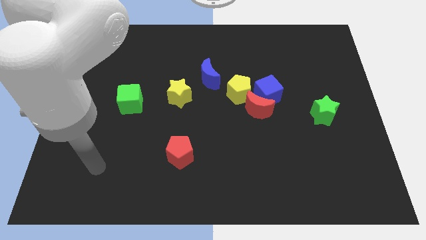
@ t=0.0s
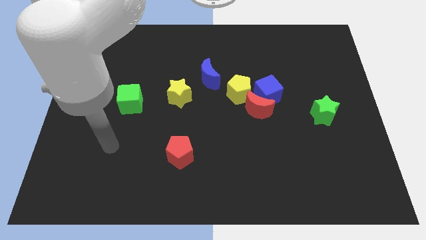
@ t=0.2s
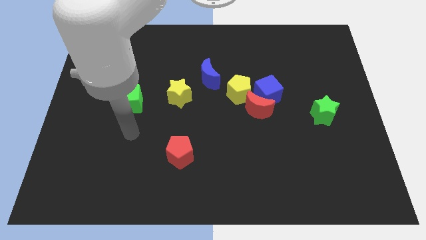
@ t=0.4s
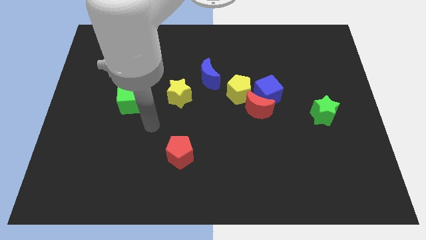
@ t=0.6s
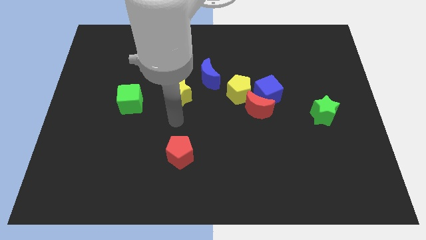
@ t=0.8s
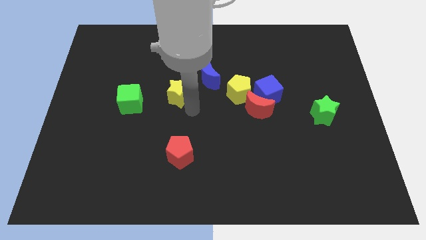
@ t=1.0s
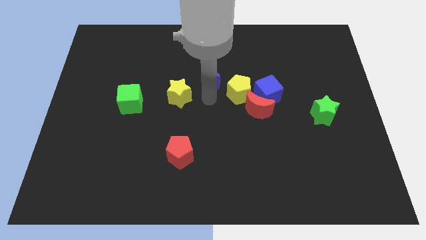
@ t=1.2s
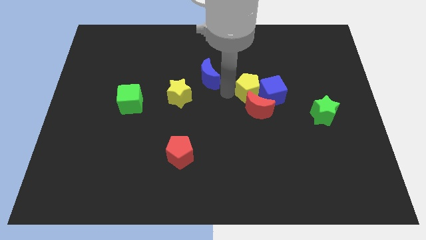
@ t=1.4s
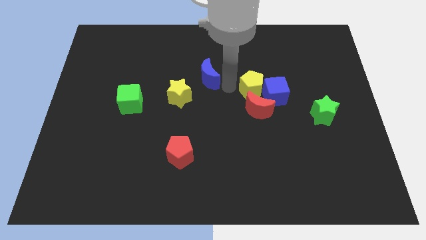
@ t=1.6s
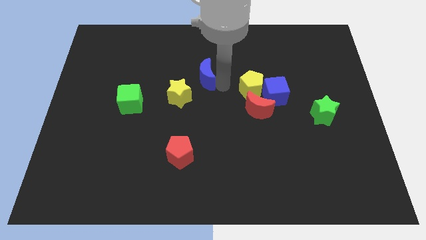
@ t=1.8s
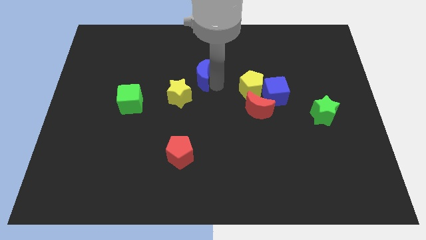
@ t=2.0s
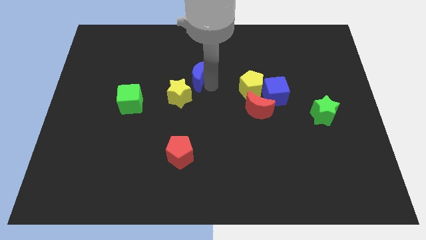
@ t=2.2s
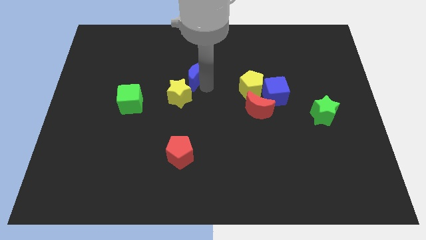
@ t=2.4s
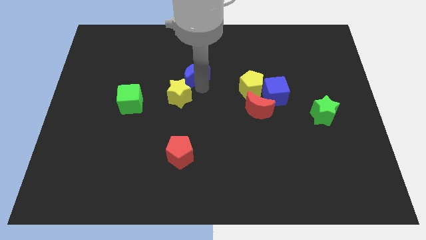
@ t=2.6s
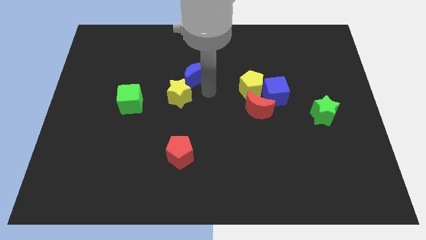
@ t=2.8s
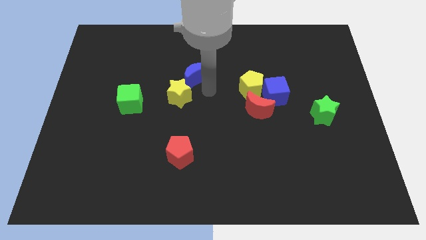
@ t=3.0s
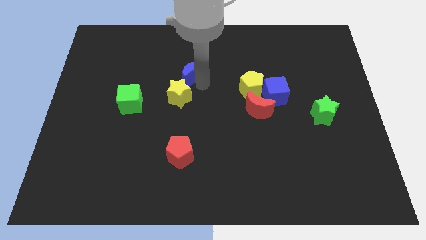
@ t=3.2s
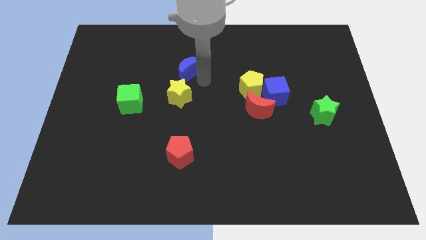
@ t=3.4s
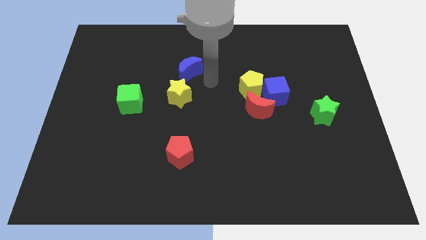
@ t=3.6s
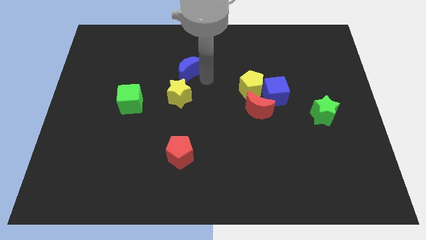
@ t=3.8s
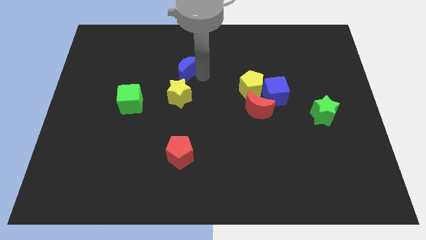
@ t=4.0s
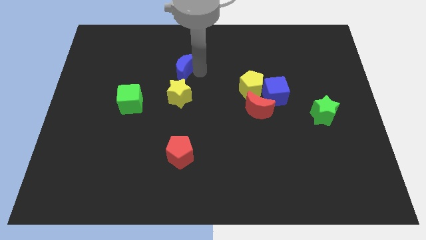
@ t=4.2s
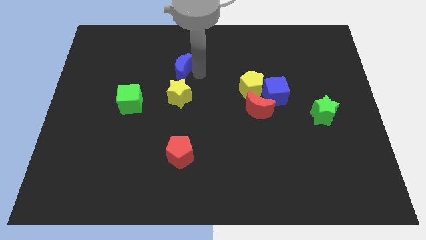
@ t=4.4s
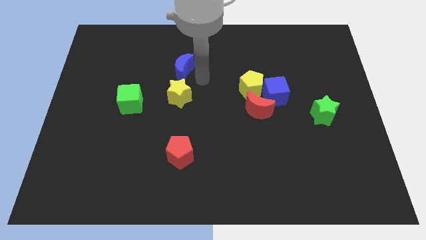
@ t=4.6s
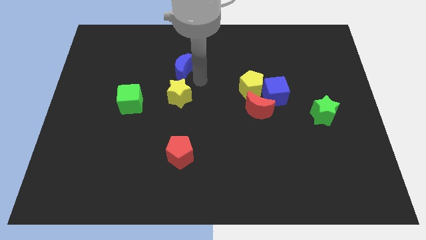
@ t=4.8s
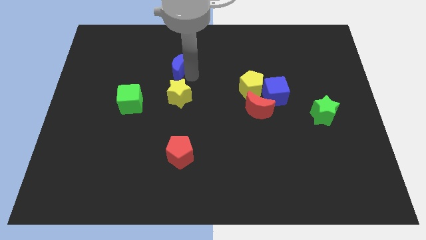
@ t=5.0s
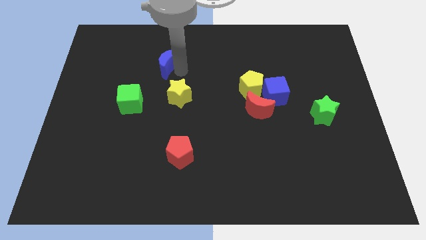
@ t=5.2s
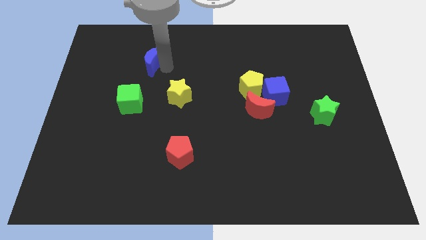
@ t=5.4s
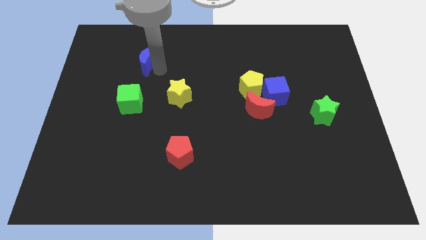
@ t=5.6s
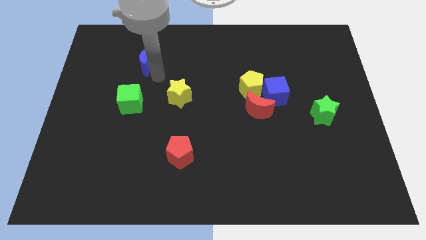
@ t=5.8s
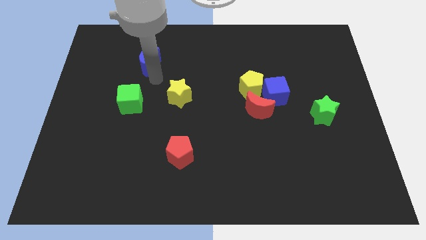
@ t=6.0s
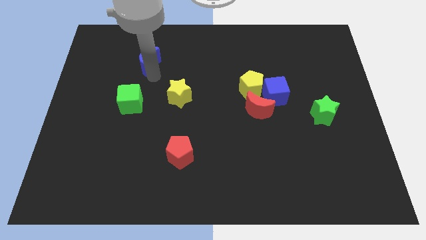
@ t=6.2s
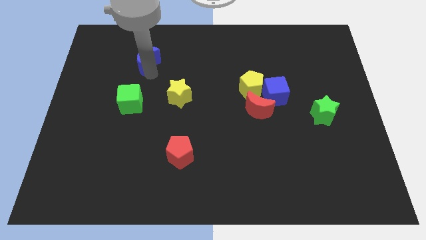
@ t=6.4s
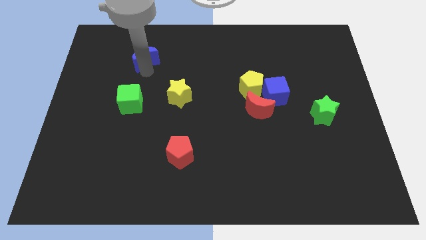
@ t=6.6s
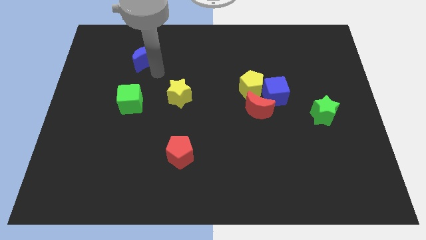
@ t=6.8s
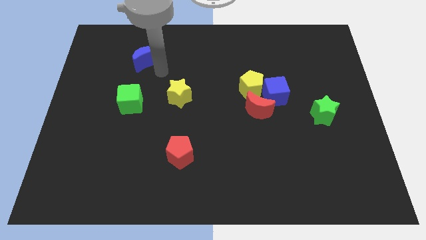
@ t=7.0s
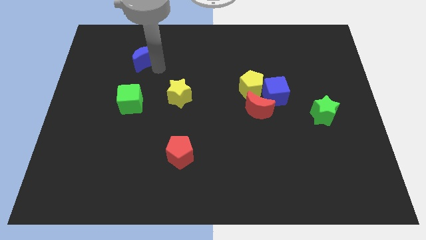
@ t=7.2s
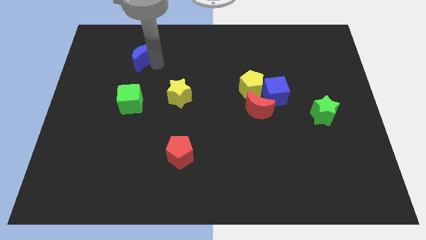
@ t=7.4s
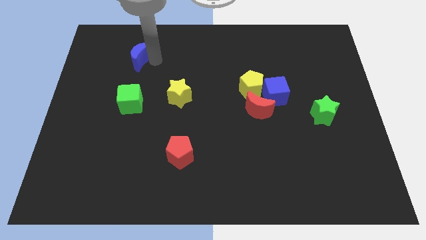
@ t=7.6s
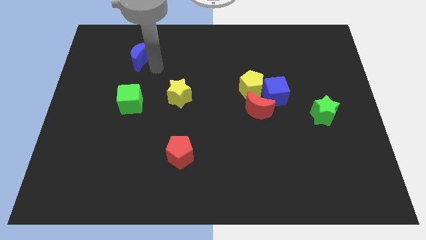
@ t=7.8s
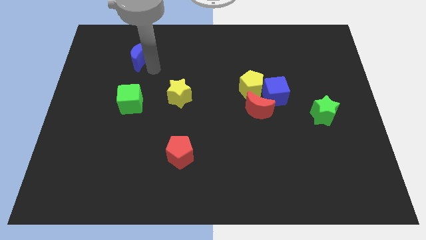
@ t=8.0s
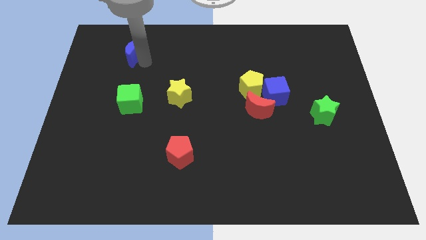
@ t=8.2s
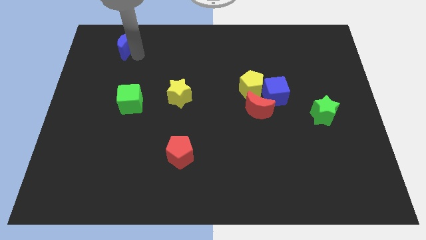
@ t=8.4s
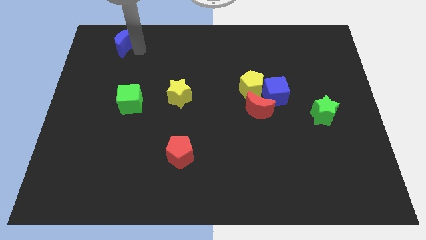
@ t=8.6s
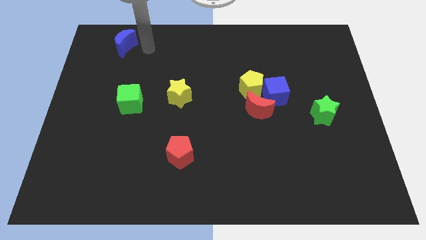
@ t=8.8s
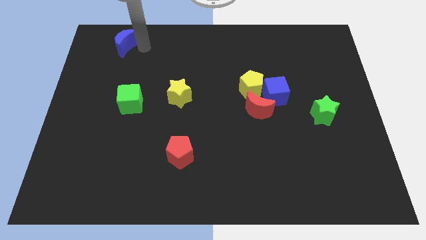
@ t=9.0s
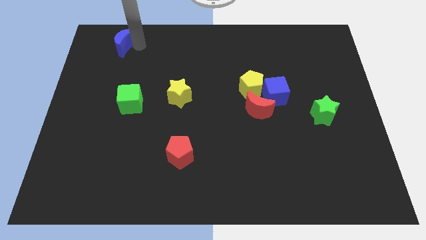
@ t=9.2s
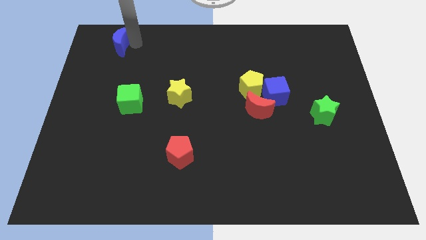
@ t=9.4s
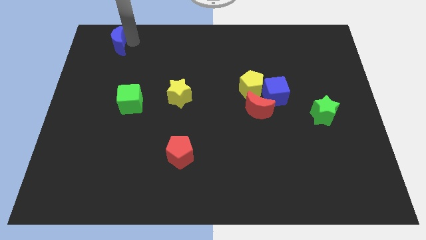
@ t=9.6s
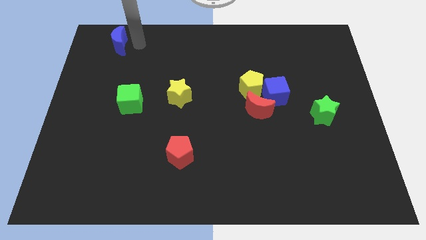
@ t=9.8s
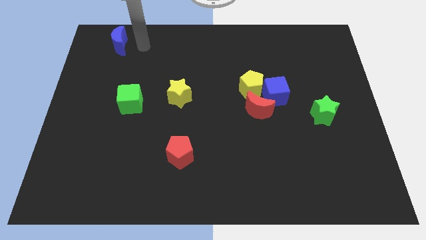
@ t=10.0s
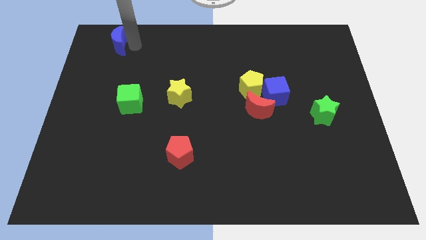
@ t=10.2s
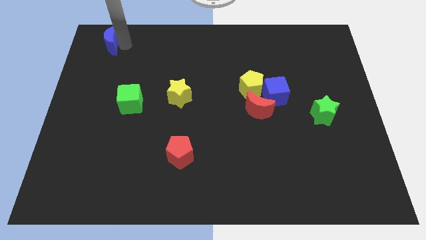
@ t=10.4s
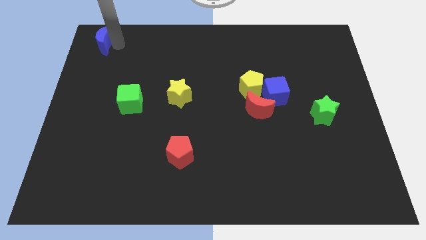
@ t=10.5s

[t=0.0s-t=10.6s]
slide the blue moon to the top left

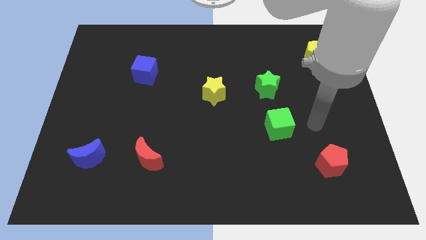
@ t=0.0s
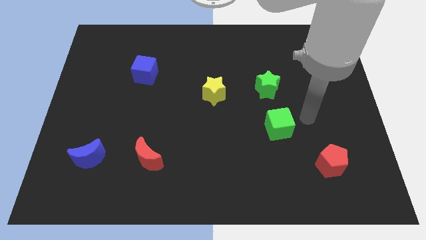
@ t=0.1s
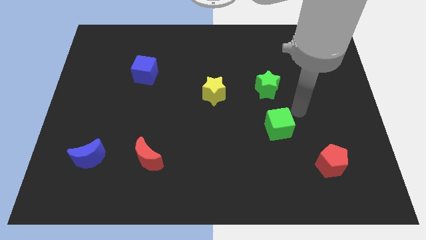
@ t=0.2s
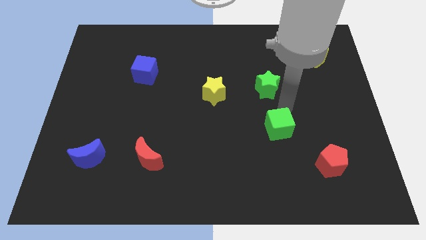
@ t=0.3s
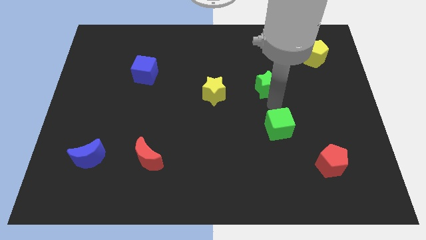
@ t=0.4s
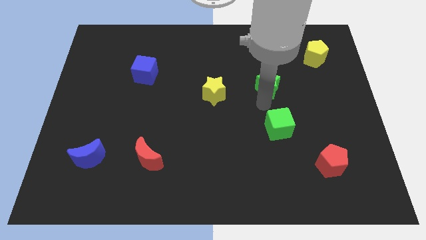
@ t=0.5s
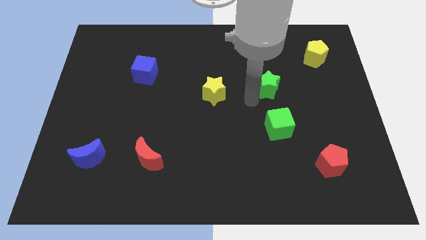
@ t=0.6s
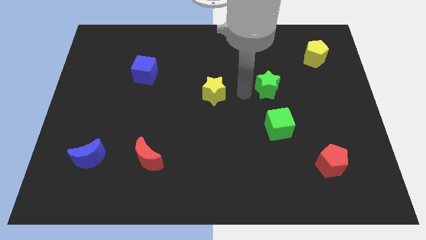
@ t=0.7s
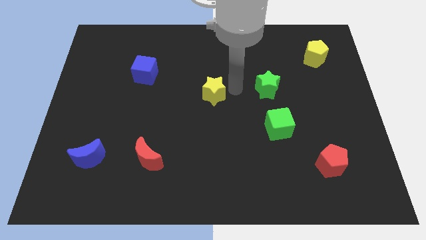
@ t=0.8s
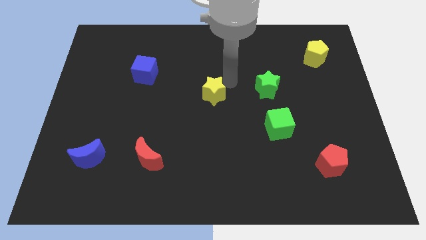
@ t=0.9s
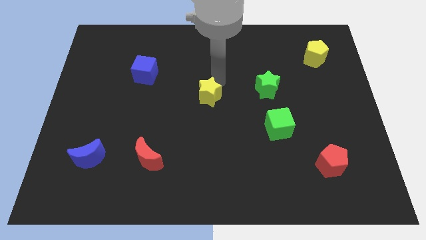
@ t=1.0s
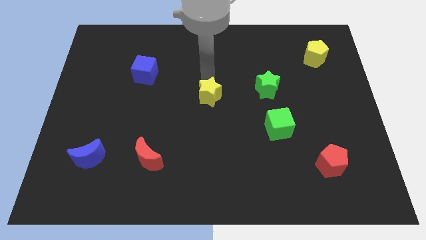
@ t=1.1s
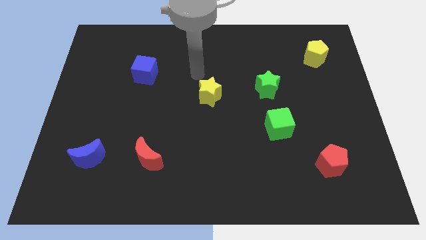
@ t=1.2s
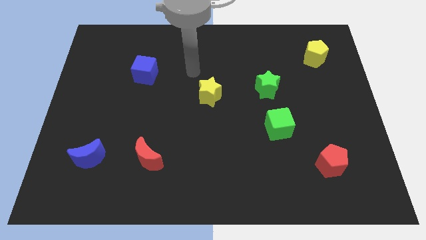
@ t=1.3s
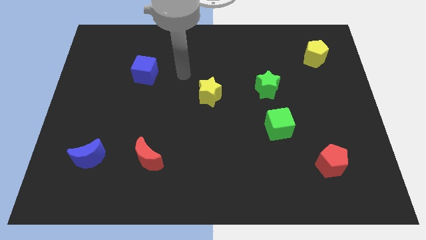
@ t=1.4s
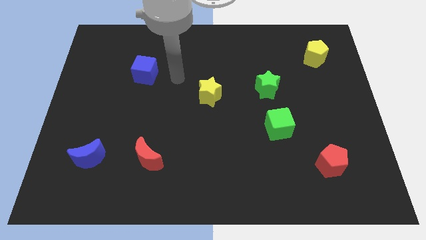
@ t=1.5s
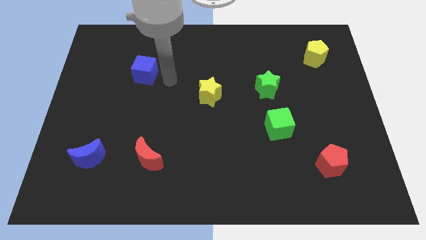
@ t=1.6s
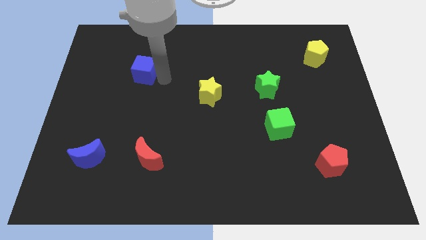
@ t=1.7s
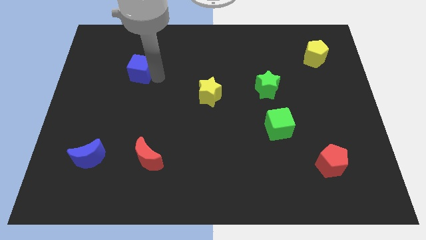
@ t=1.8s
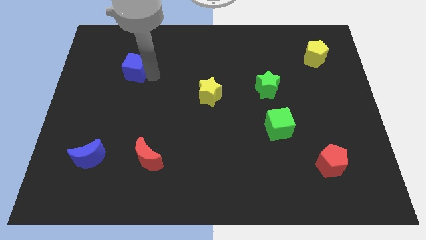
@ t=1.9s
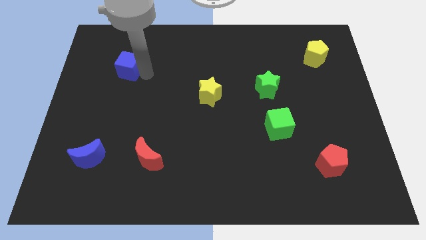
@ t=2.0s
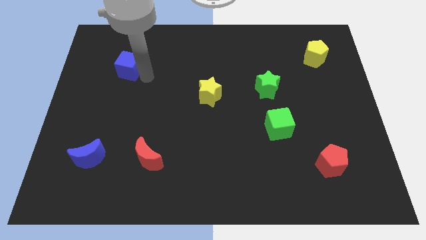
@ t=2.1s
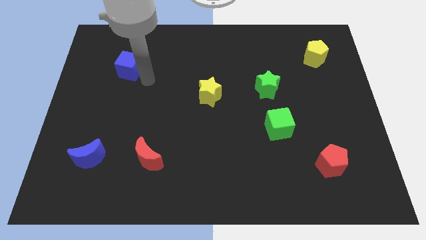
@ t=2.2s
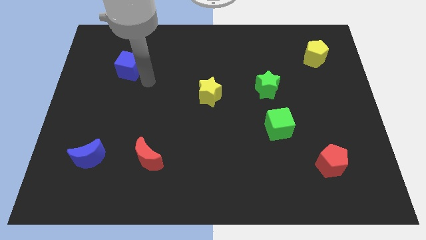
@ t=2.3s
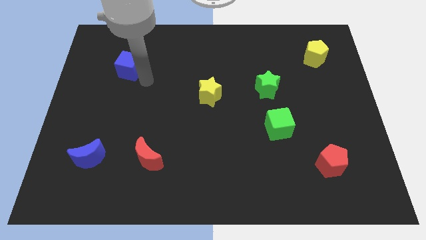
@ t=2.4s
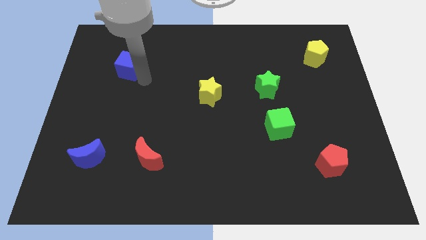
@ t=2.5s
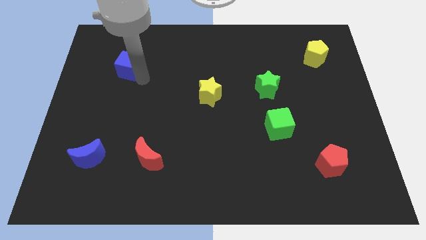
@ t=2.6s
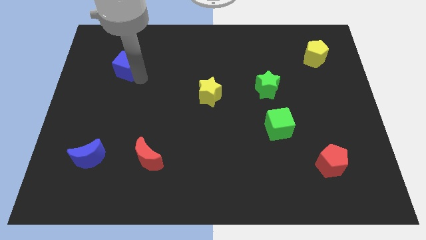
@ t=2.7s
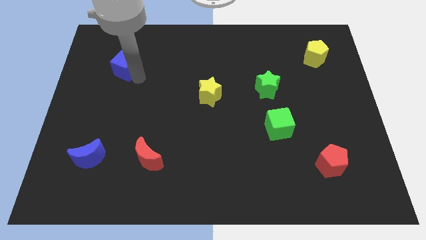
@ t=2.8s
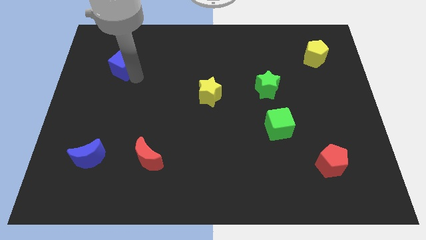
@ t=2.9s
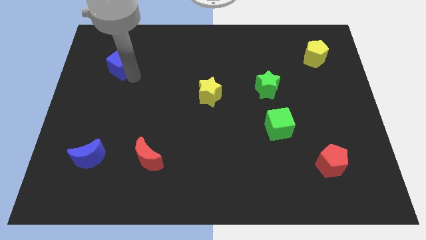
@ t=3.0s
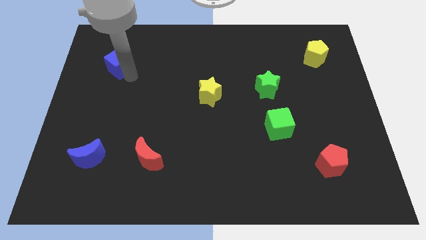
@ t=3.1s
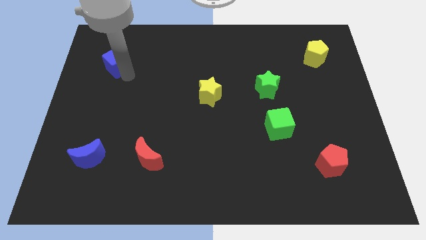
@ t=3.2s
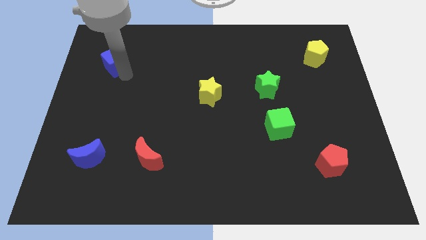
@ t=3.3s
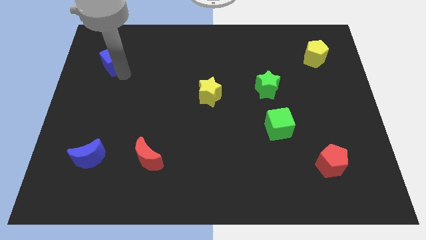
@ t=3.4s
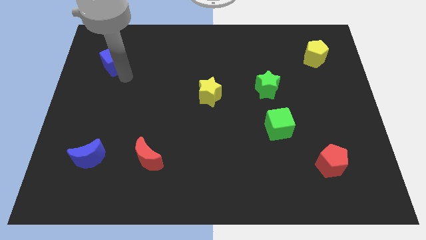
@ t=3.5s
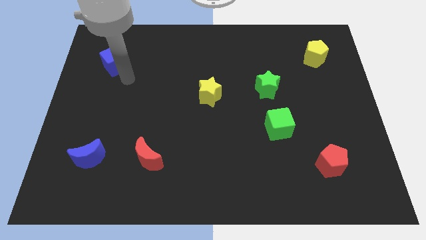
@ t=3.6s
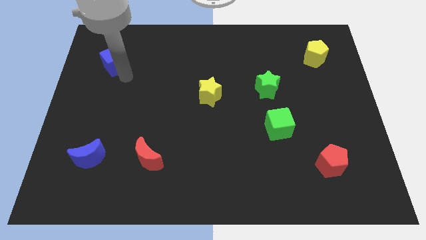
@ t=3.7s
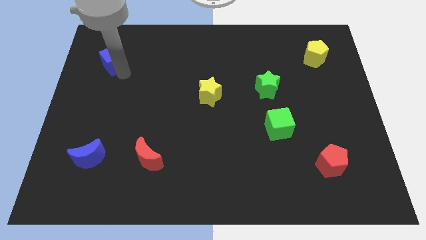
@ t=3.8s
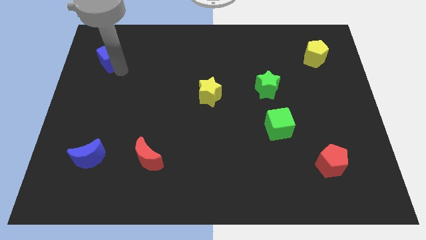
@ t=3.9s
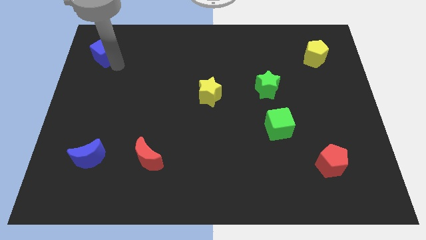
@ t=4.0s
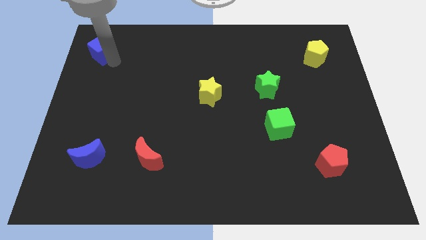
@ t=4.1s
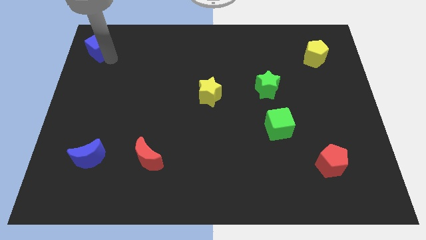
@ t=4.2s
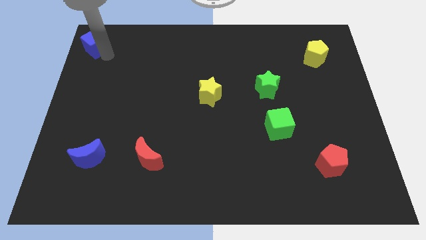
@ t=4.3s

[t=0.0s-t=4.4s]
put the blue cube to the top left corner
